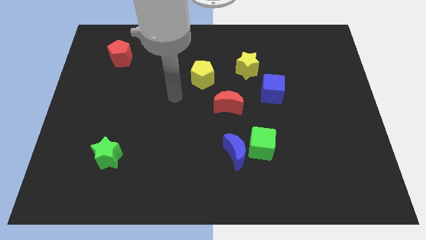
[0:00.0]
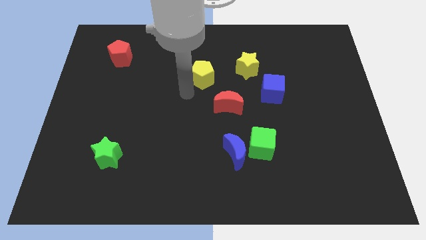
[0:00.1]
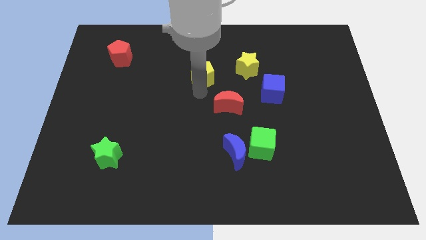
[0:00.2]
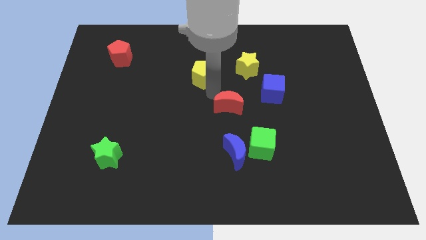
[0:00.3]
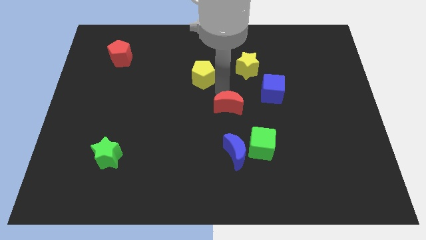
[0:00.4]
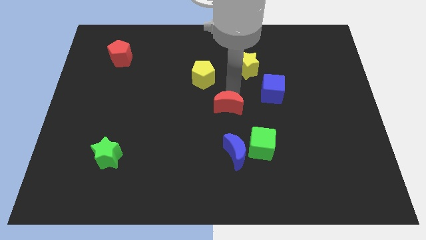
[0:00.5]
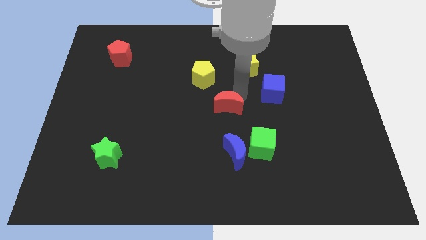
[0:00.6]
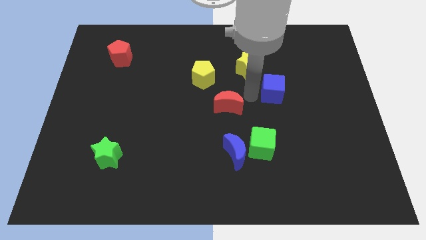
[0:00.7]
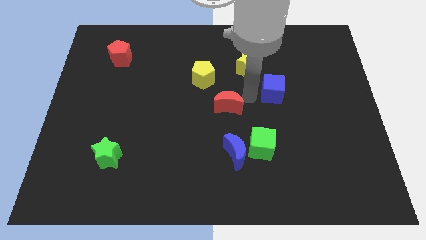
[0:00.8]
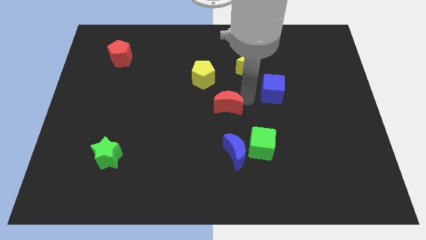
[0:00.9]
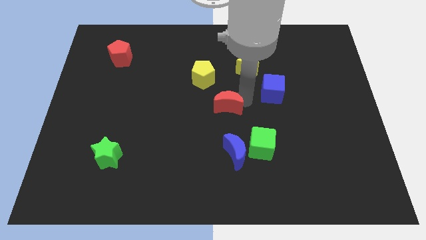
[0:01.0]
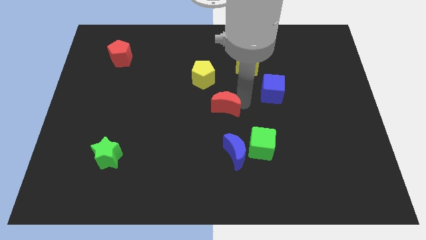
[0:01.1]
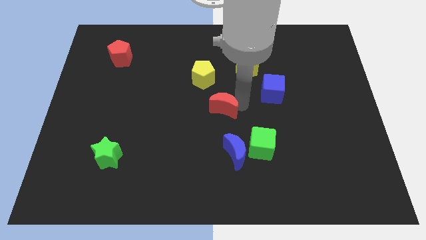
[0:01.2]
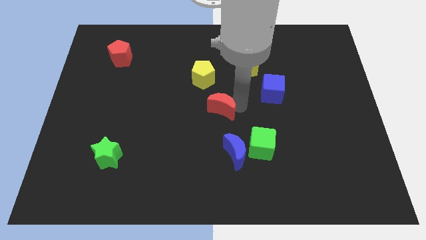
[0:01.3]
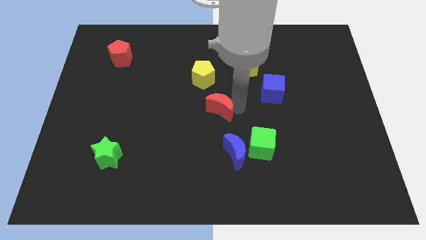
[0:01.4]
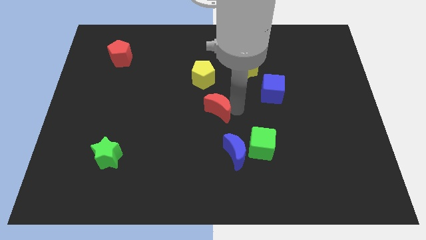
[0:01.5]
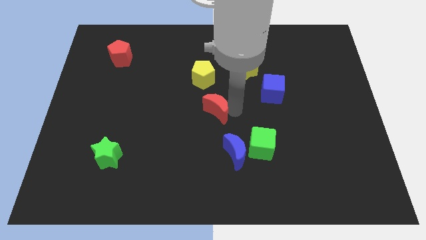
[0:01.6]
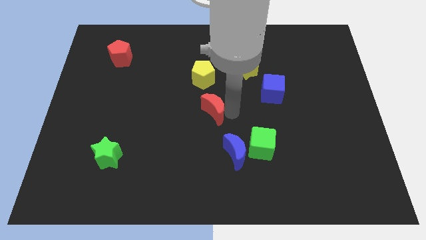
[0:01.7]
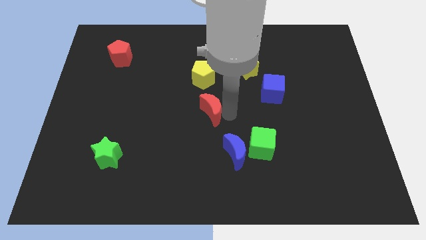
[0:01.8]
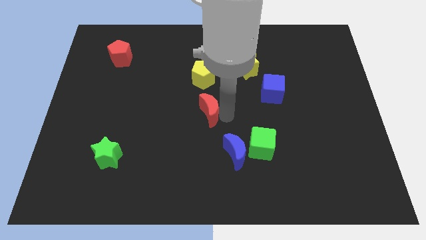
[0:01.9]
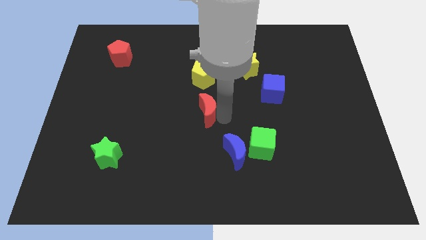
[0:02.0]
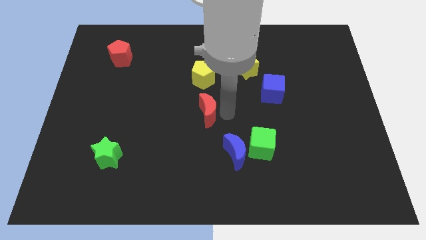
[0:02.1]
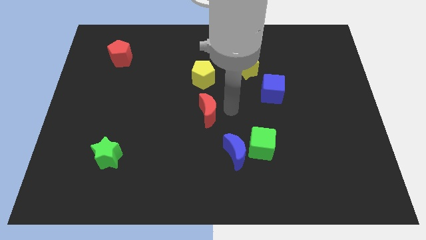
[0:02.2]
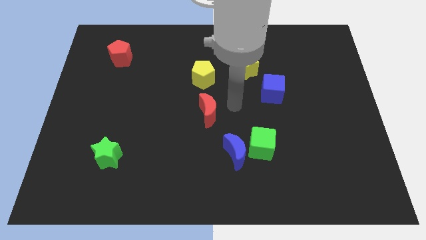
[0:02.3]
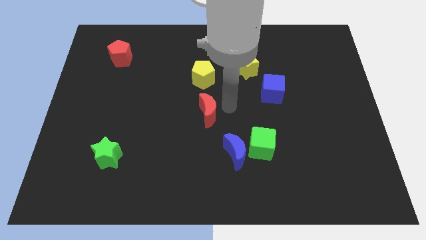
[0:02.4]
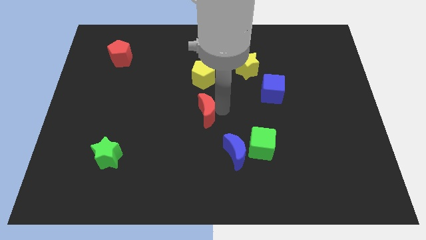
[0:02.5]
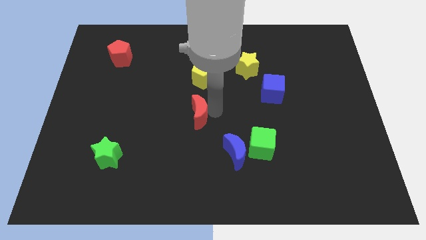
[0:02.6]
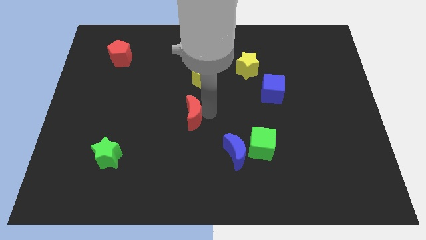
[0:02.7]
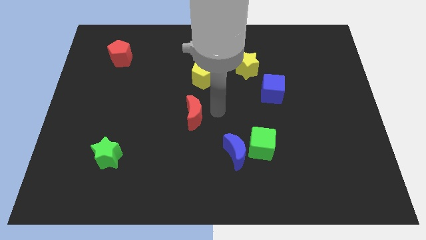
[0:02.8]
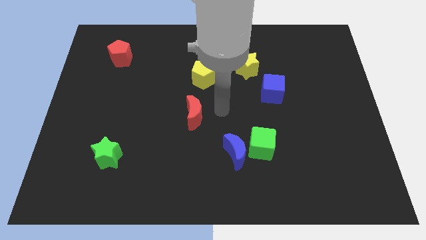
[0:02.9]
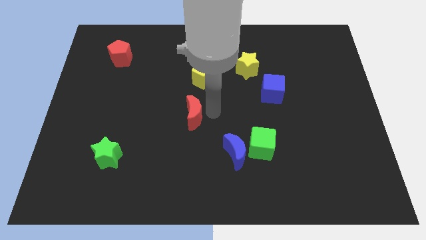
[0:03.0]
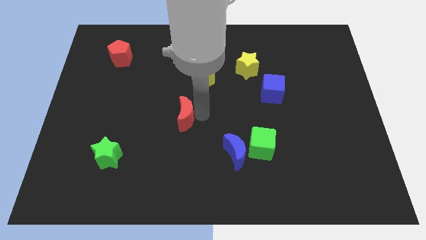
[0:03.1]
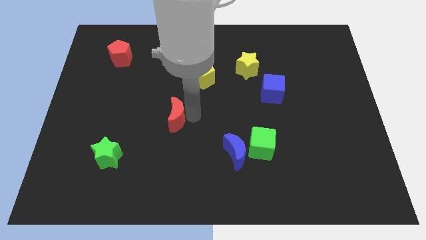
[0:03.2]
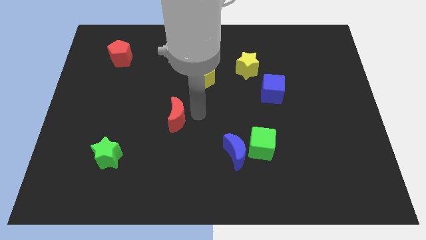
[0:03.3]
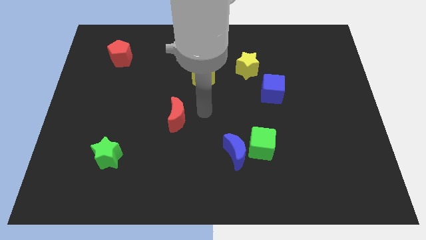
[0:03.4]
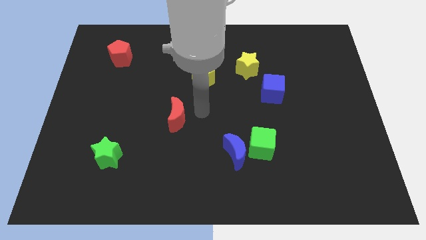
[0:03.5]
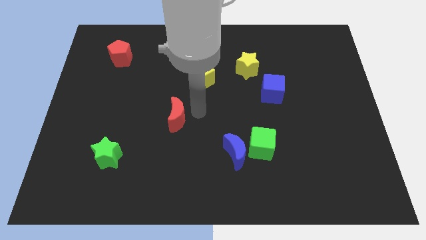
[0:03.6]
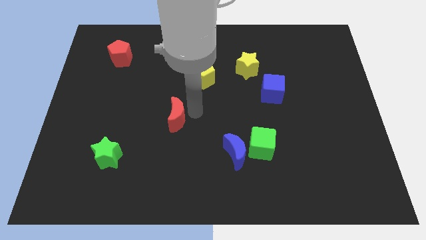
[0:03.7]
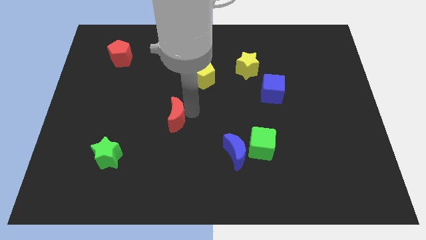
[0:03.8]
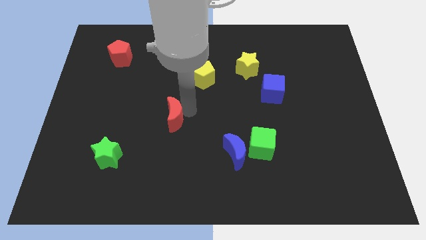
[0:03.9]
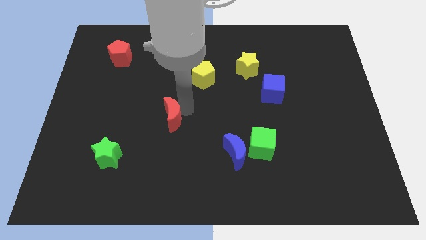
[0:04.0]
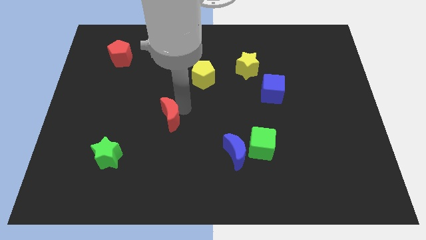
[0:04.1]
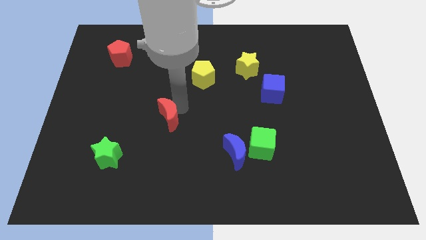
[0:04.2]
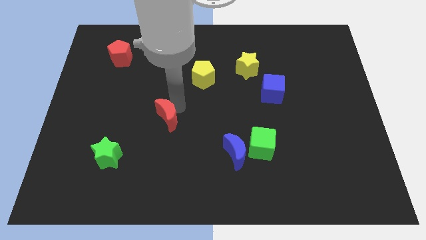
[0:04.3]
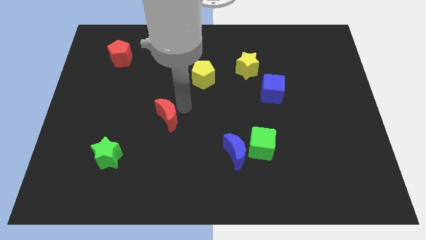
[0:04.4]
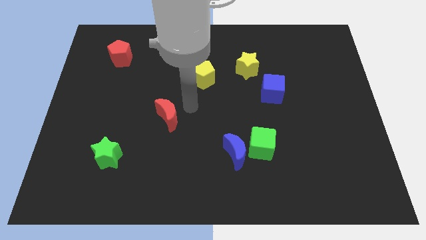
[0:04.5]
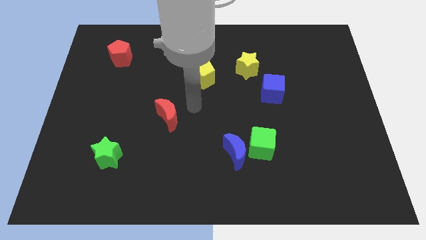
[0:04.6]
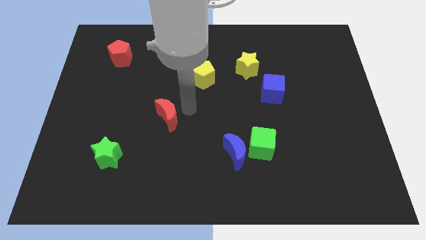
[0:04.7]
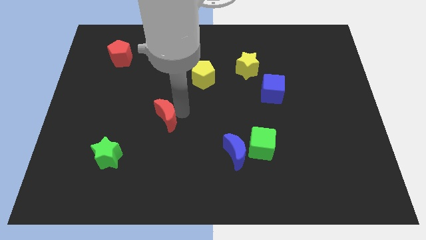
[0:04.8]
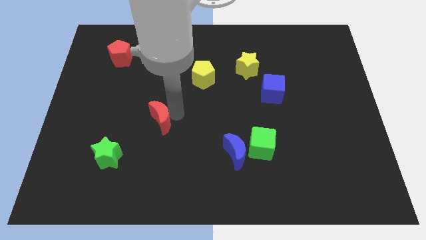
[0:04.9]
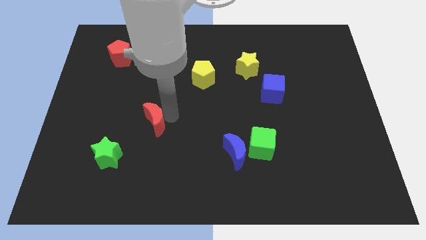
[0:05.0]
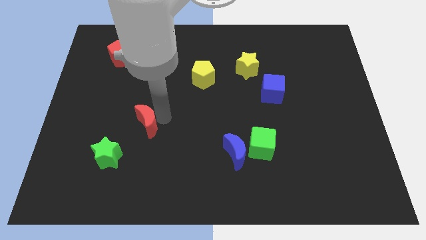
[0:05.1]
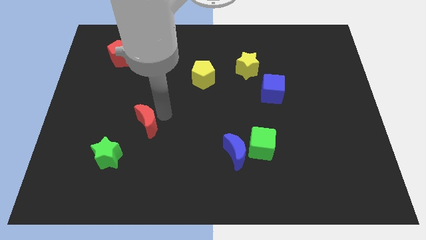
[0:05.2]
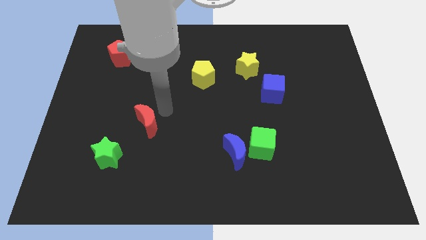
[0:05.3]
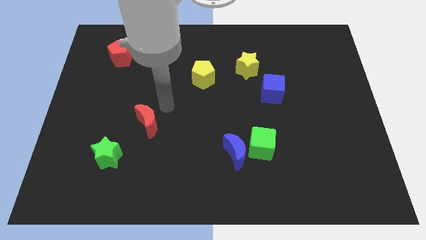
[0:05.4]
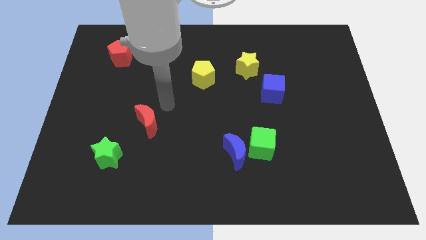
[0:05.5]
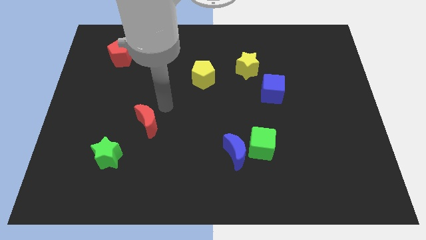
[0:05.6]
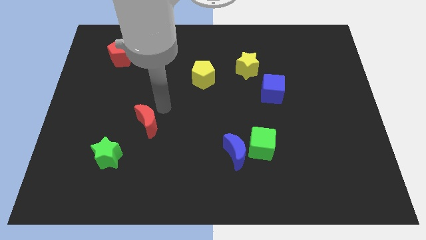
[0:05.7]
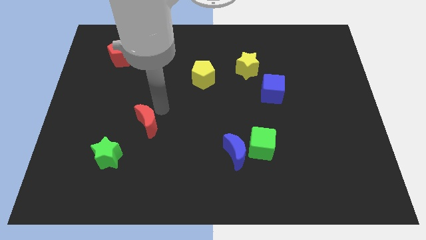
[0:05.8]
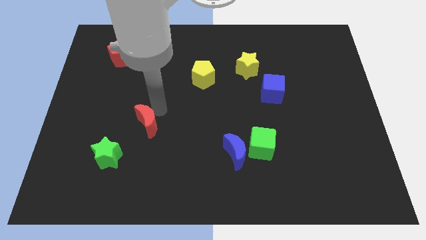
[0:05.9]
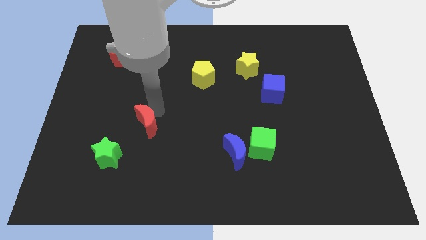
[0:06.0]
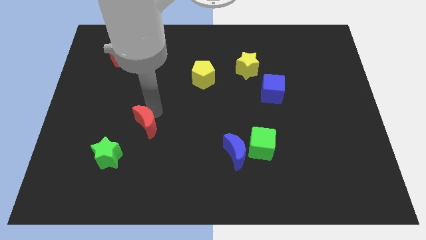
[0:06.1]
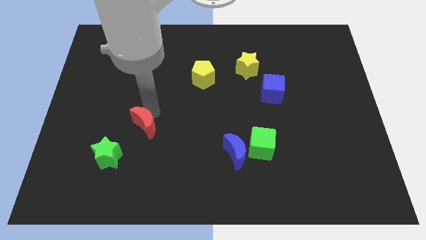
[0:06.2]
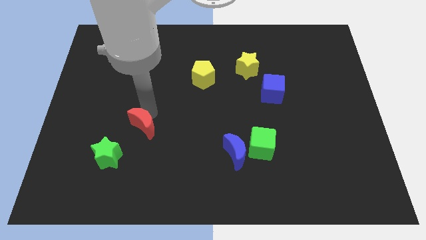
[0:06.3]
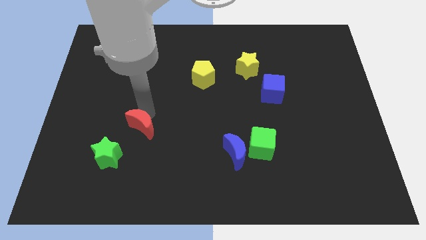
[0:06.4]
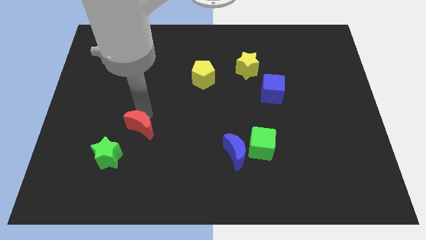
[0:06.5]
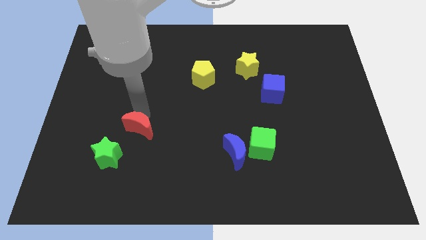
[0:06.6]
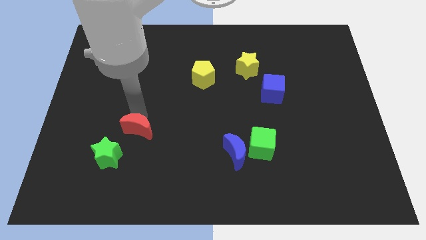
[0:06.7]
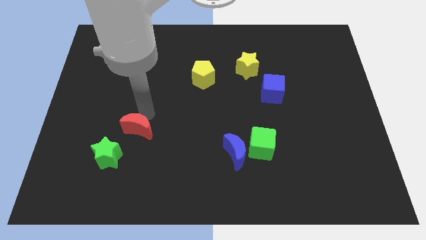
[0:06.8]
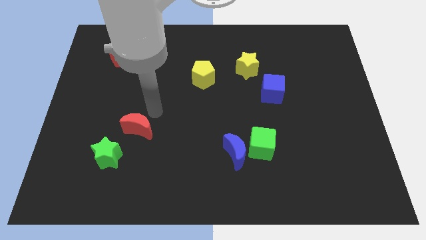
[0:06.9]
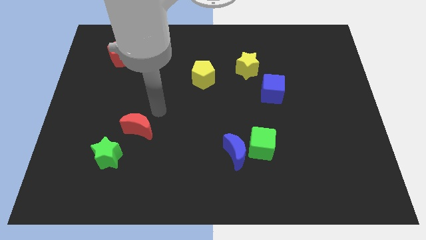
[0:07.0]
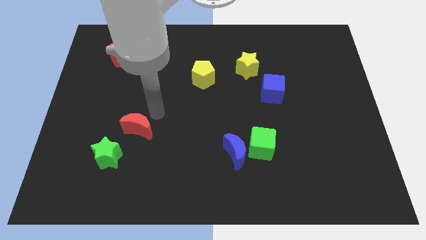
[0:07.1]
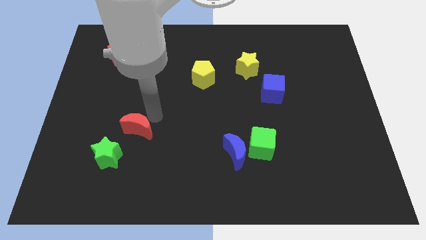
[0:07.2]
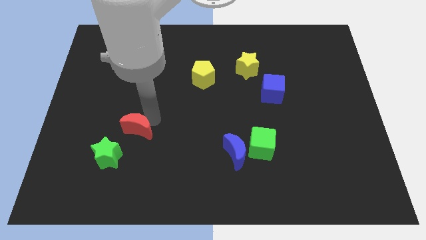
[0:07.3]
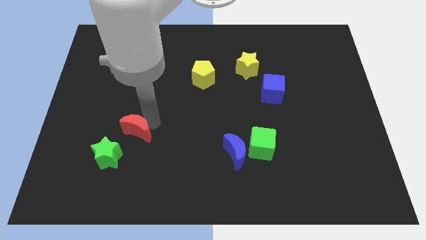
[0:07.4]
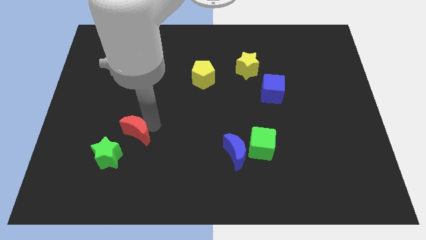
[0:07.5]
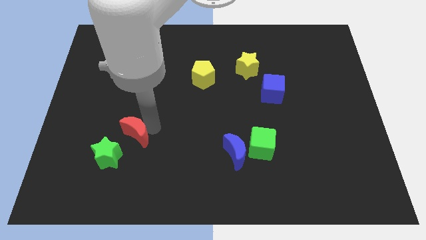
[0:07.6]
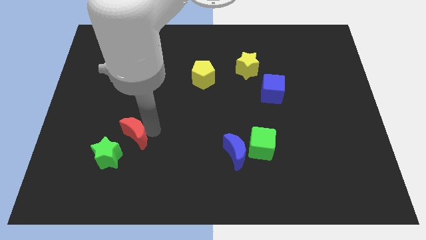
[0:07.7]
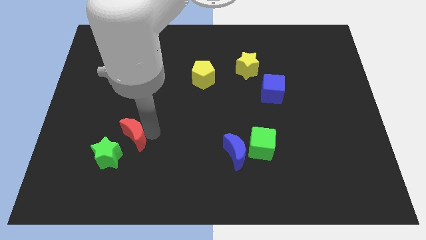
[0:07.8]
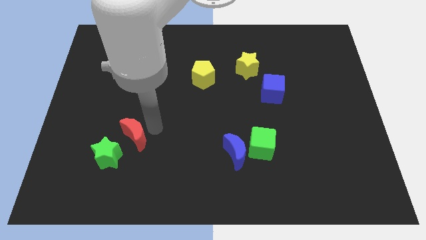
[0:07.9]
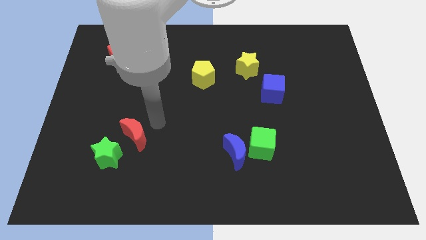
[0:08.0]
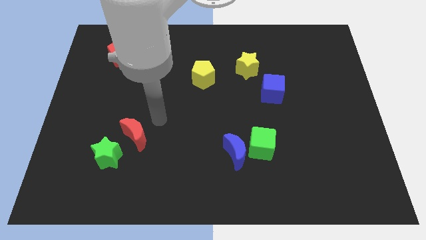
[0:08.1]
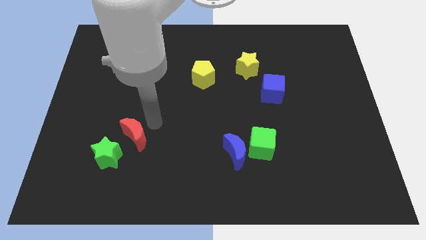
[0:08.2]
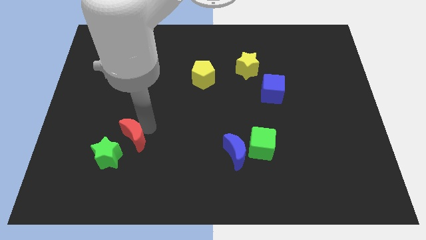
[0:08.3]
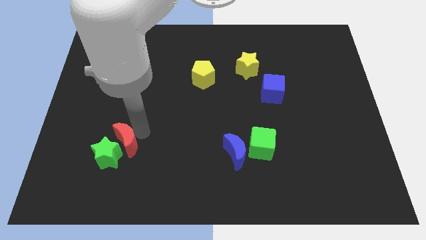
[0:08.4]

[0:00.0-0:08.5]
push the red moon close to the green star
